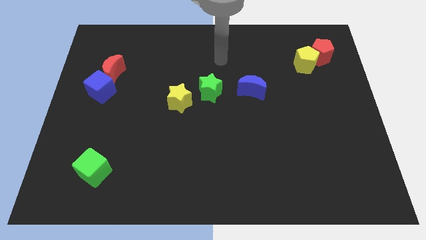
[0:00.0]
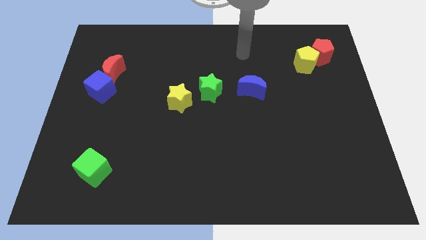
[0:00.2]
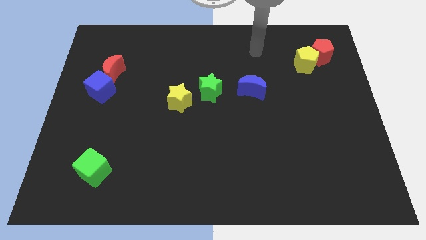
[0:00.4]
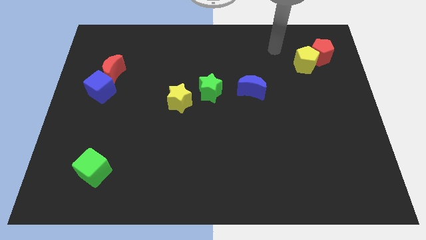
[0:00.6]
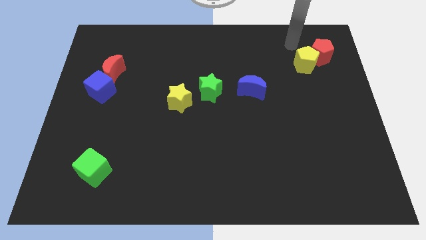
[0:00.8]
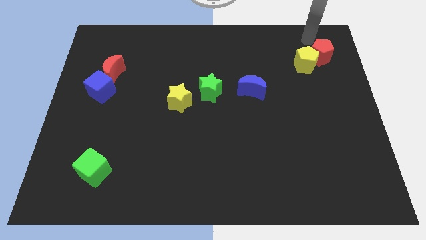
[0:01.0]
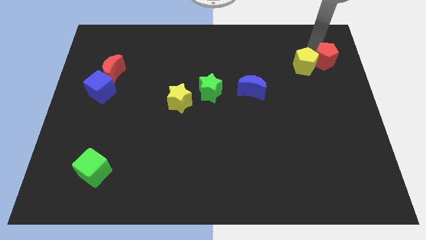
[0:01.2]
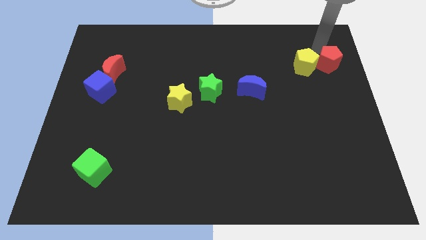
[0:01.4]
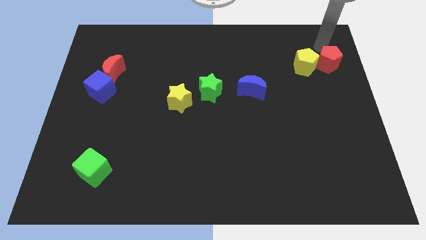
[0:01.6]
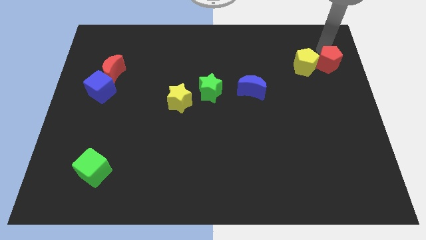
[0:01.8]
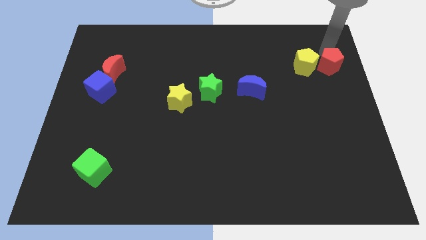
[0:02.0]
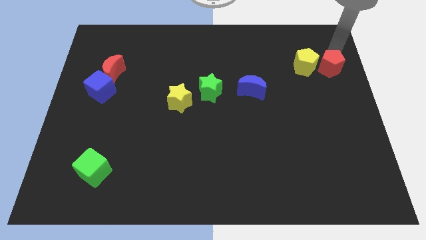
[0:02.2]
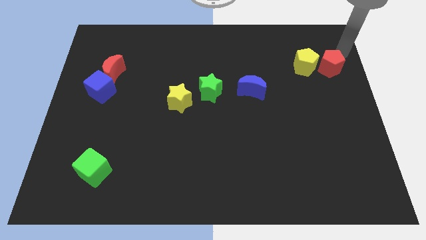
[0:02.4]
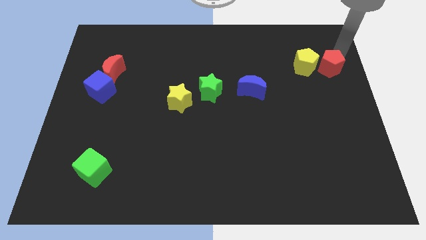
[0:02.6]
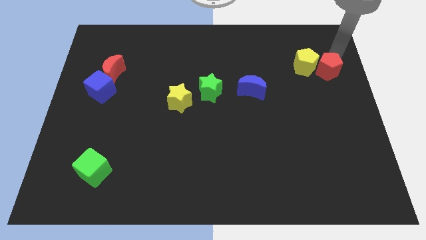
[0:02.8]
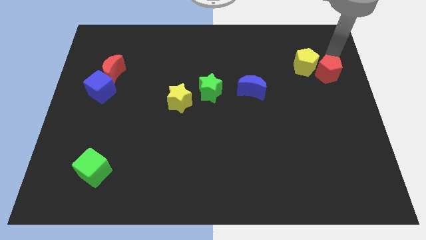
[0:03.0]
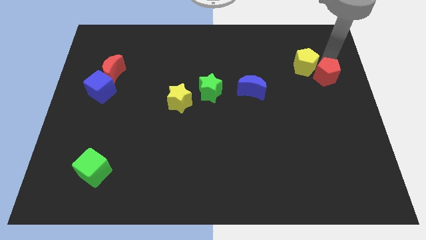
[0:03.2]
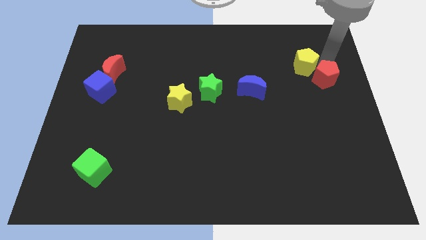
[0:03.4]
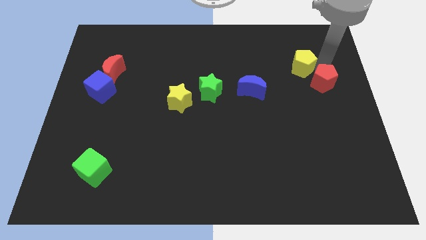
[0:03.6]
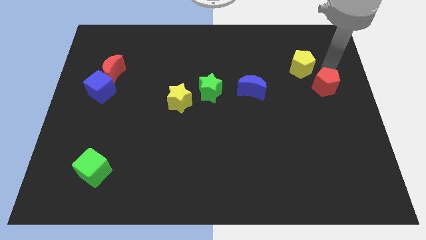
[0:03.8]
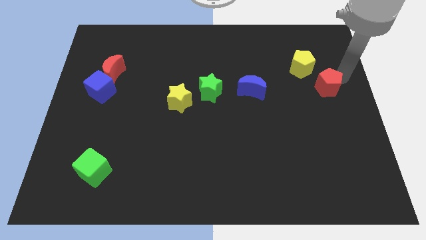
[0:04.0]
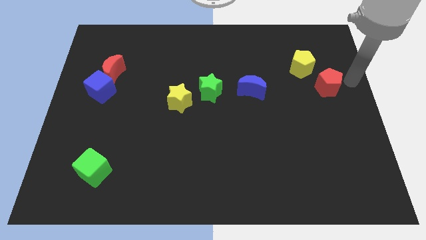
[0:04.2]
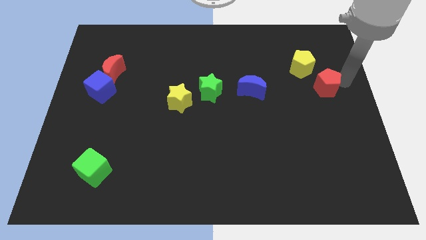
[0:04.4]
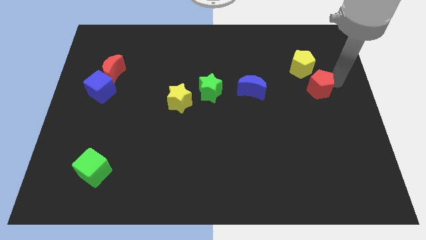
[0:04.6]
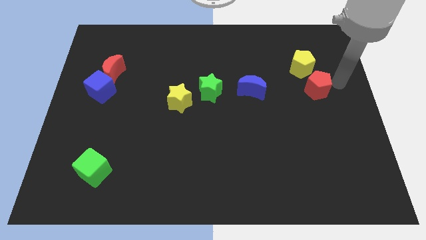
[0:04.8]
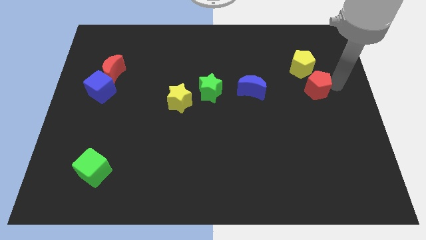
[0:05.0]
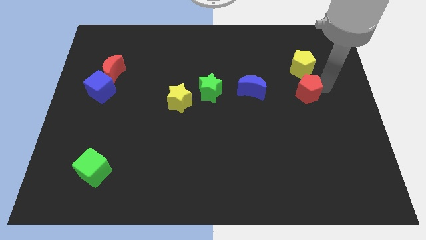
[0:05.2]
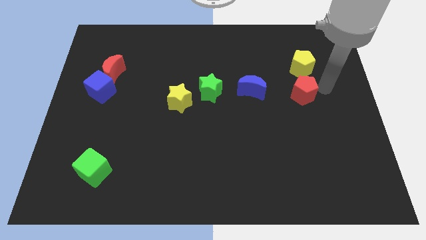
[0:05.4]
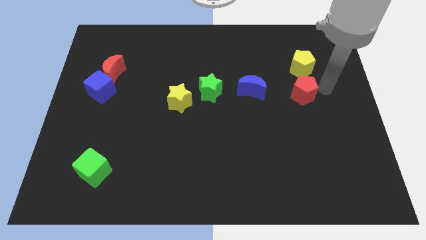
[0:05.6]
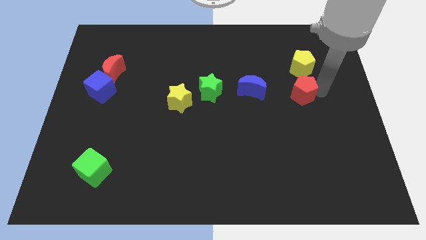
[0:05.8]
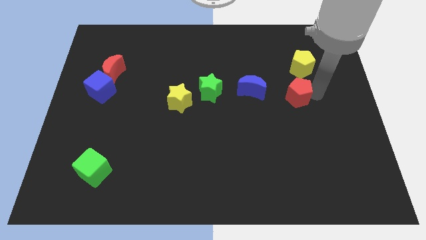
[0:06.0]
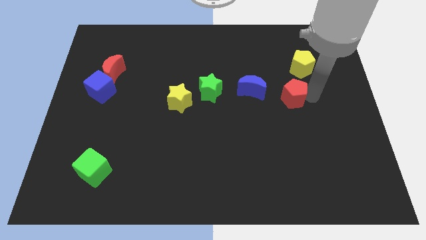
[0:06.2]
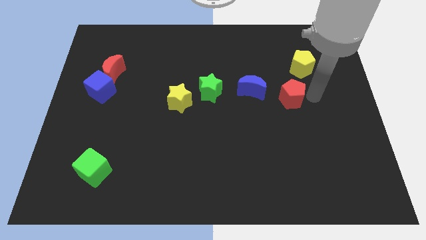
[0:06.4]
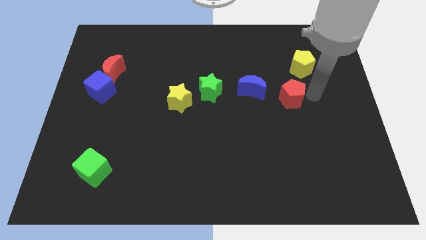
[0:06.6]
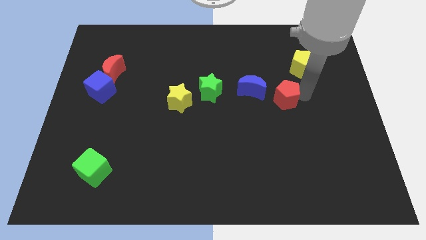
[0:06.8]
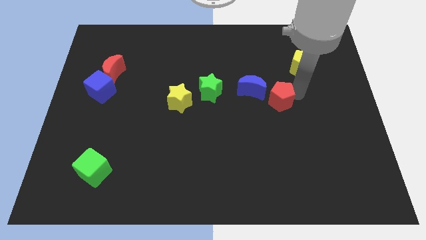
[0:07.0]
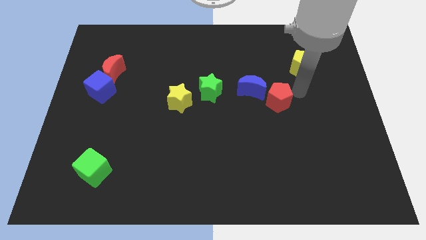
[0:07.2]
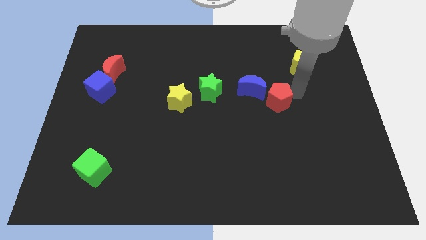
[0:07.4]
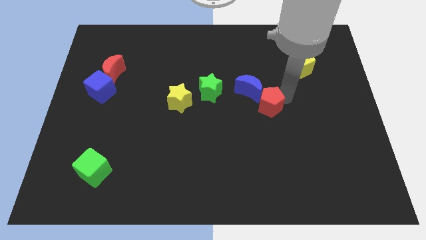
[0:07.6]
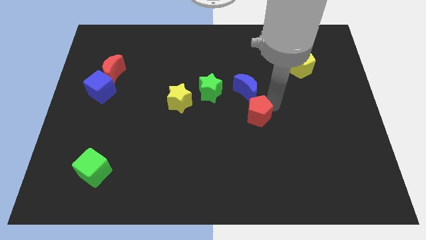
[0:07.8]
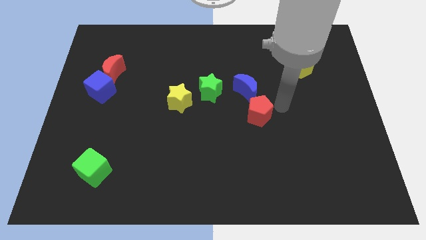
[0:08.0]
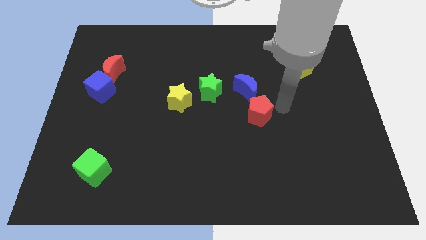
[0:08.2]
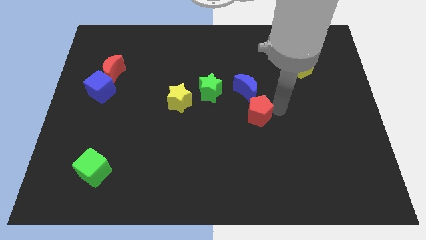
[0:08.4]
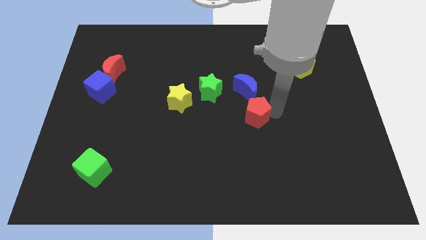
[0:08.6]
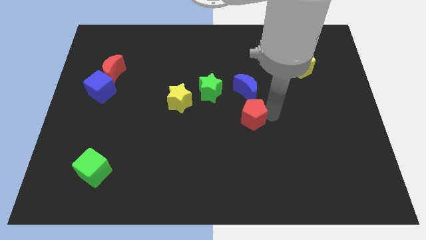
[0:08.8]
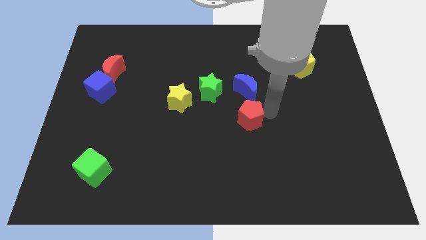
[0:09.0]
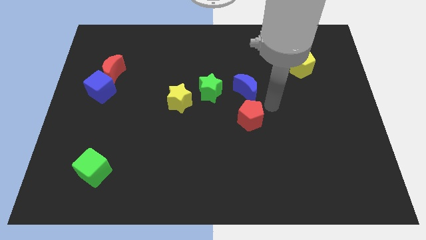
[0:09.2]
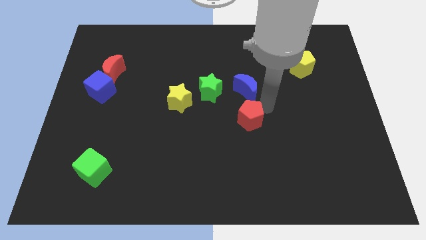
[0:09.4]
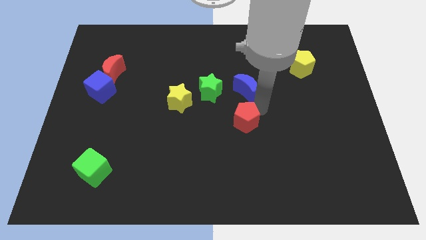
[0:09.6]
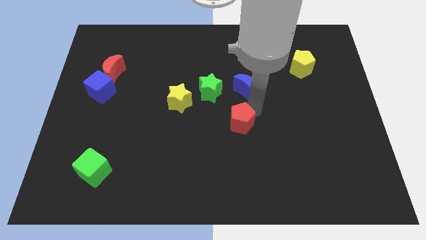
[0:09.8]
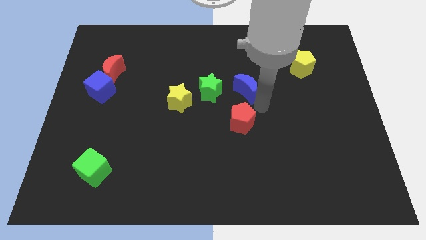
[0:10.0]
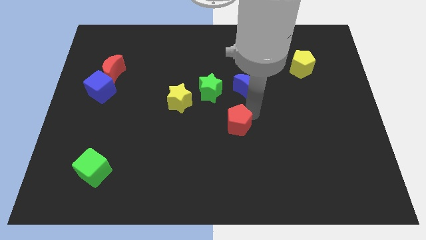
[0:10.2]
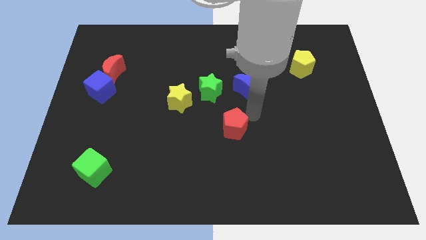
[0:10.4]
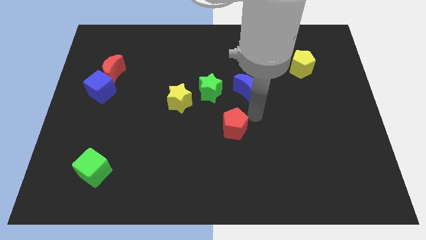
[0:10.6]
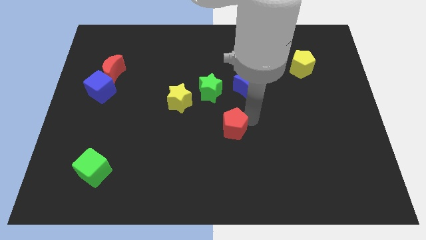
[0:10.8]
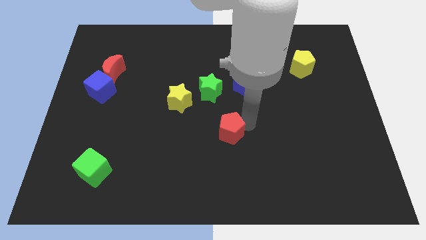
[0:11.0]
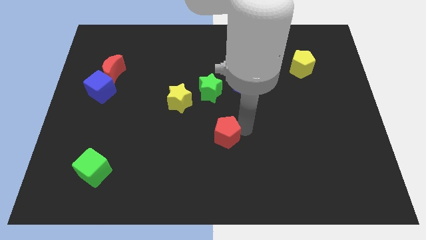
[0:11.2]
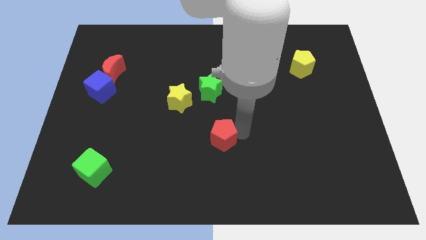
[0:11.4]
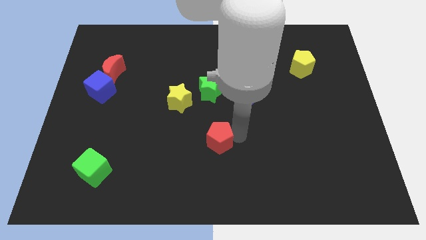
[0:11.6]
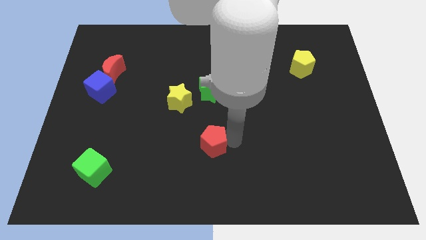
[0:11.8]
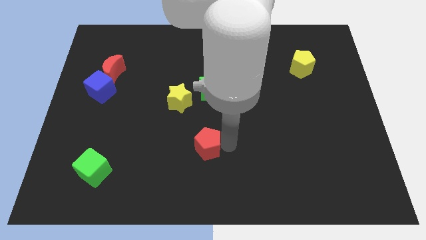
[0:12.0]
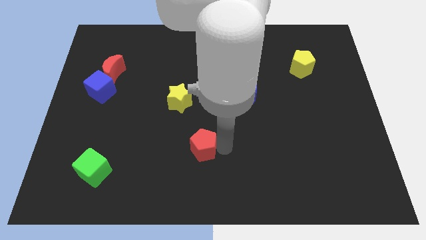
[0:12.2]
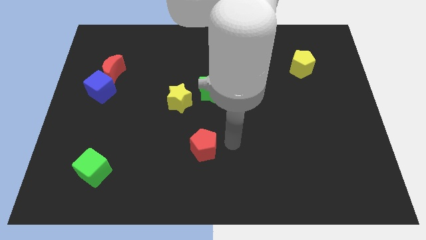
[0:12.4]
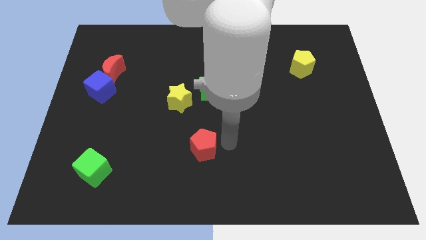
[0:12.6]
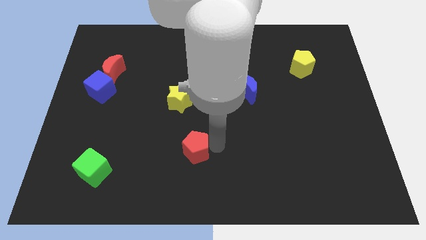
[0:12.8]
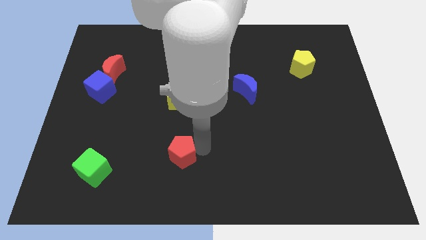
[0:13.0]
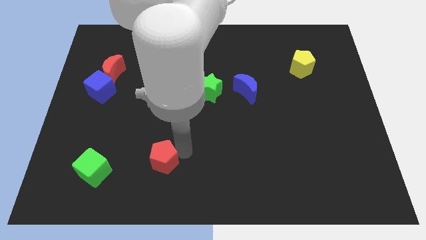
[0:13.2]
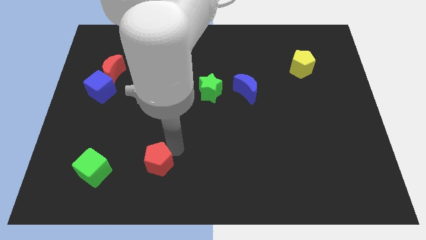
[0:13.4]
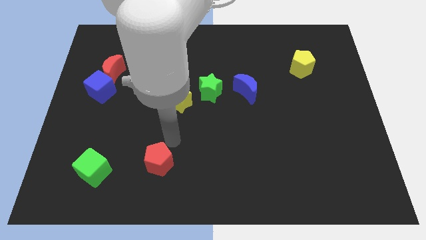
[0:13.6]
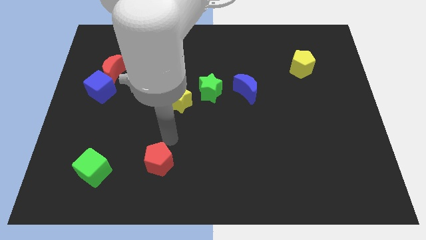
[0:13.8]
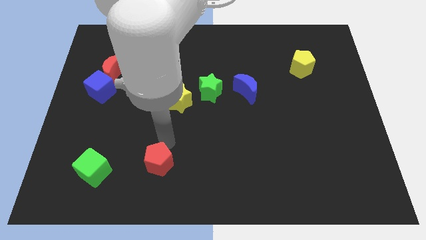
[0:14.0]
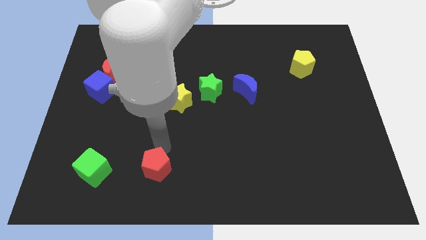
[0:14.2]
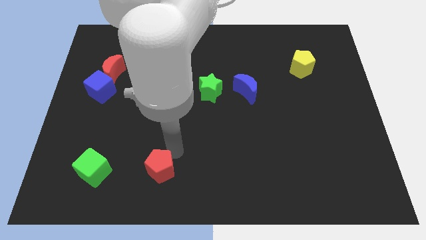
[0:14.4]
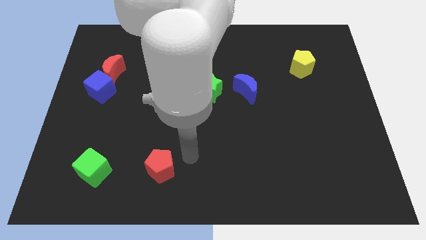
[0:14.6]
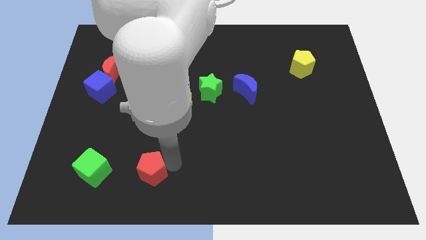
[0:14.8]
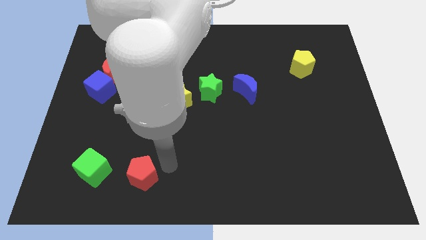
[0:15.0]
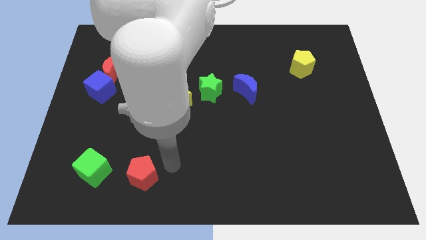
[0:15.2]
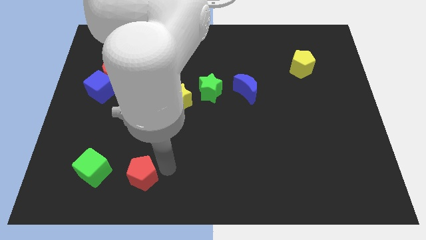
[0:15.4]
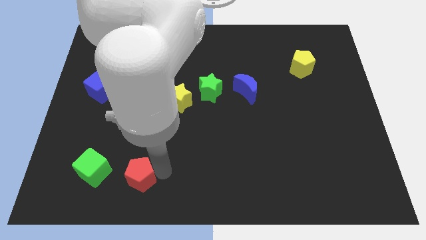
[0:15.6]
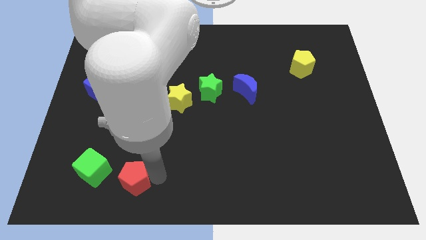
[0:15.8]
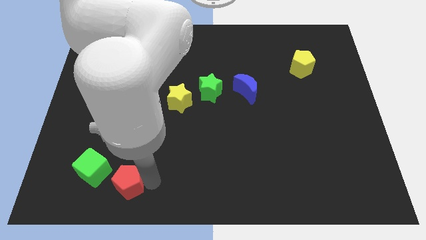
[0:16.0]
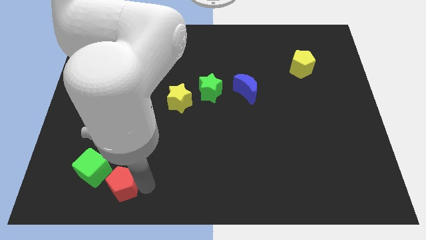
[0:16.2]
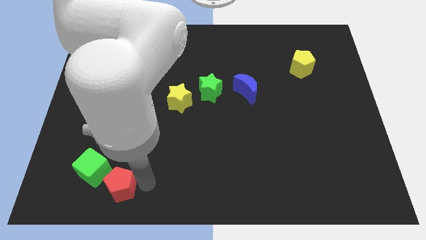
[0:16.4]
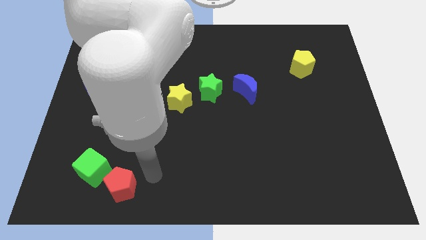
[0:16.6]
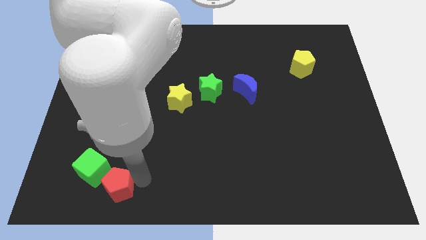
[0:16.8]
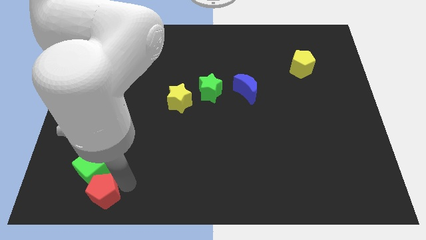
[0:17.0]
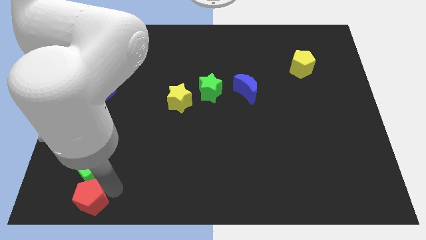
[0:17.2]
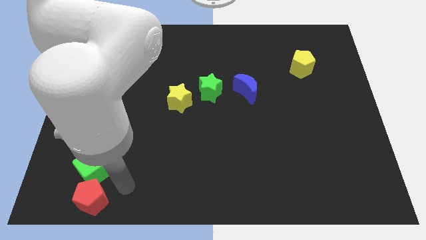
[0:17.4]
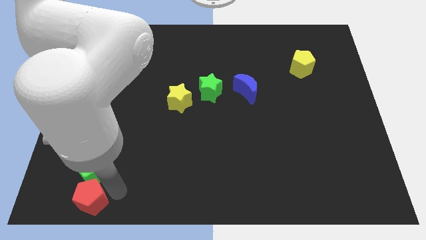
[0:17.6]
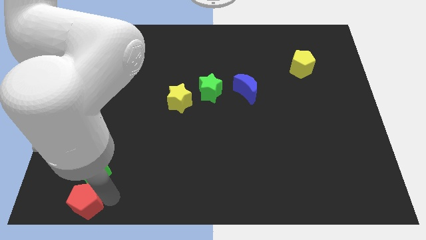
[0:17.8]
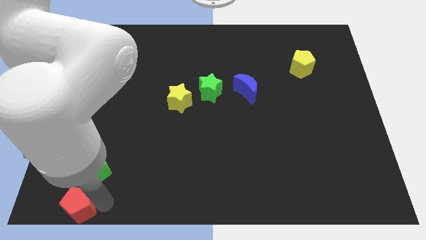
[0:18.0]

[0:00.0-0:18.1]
push the red pentagon to the bottom left corner
